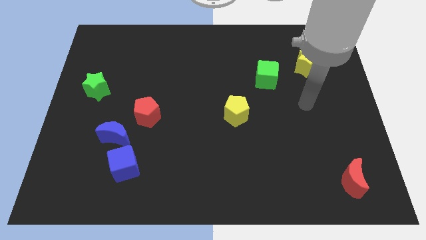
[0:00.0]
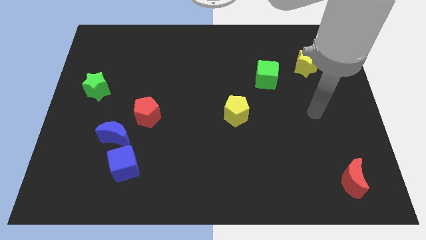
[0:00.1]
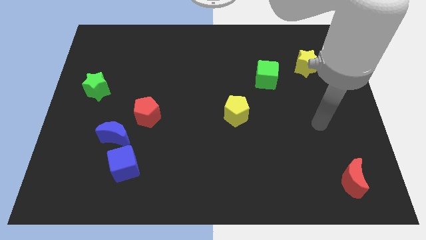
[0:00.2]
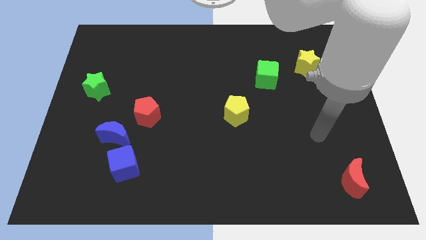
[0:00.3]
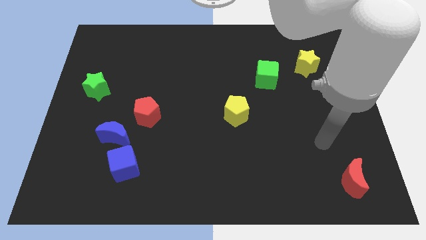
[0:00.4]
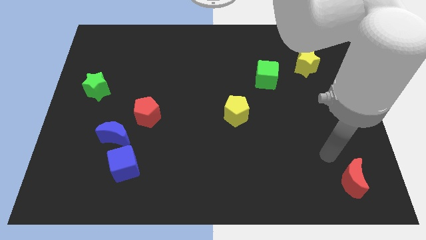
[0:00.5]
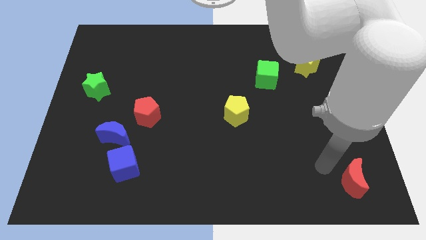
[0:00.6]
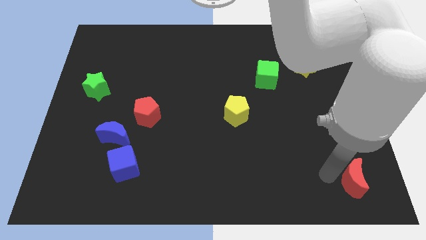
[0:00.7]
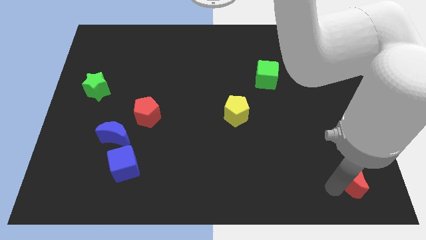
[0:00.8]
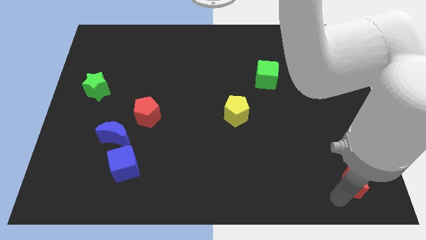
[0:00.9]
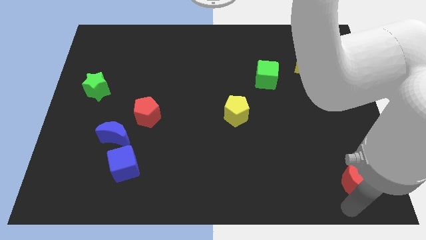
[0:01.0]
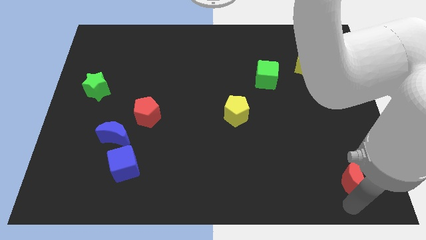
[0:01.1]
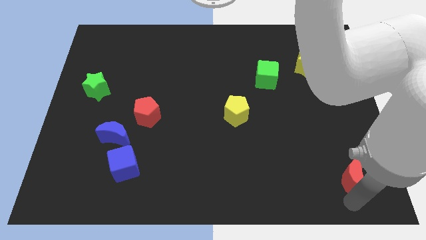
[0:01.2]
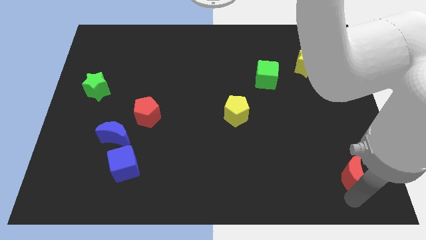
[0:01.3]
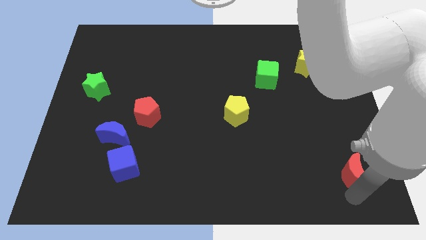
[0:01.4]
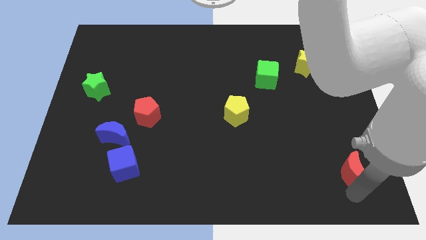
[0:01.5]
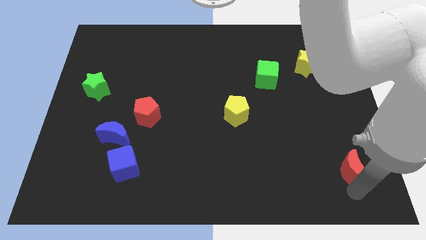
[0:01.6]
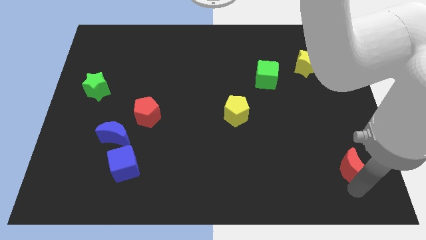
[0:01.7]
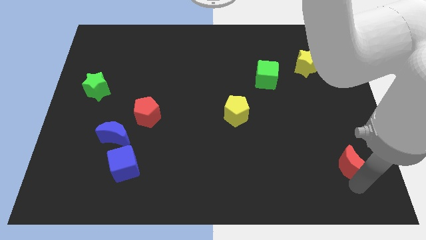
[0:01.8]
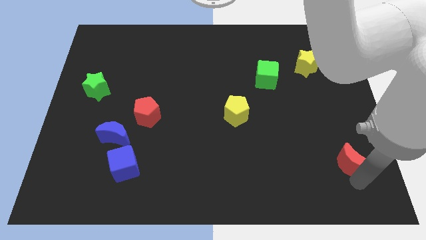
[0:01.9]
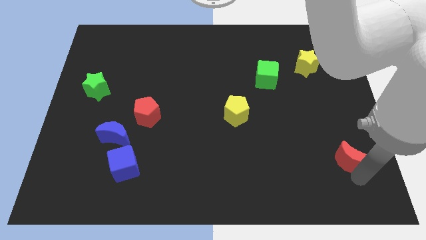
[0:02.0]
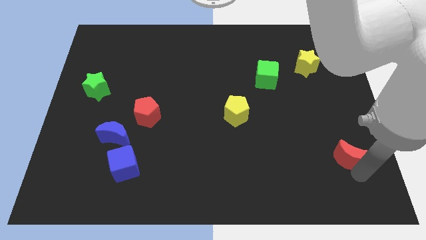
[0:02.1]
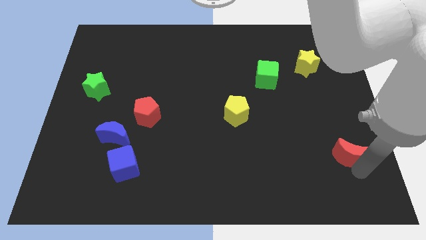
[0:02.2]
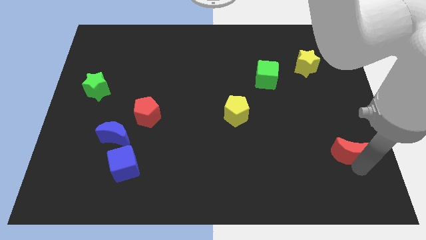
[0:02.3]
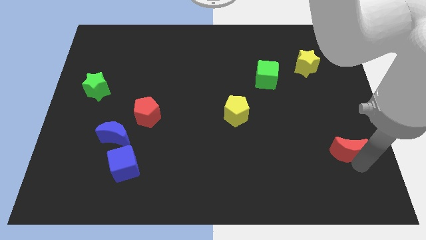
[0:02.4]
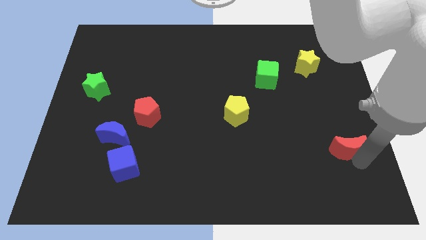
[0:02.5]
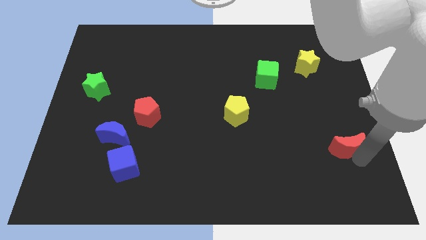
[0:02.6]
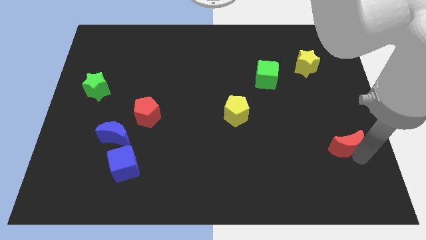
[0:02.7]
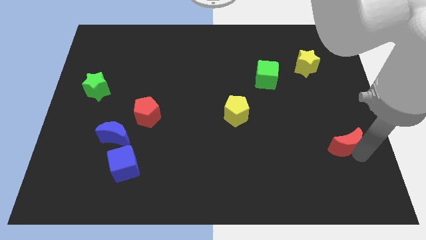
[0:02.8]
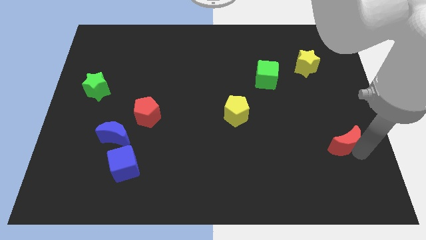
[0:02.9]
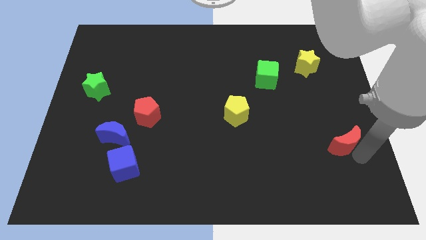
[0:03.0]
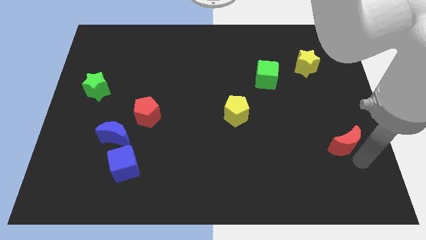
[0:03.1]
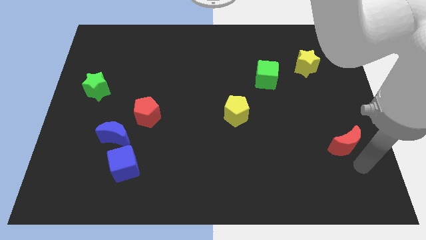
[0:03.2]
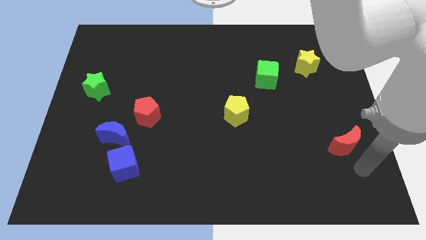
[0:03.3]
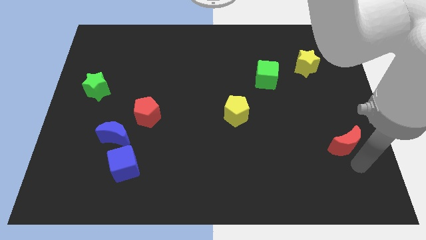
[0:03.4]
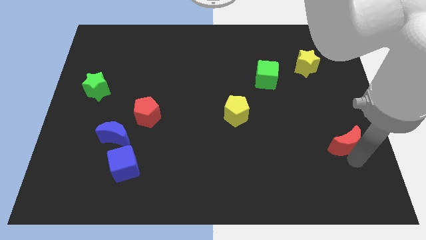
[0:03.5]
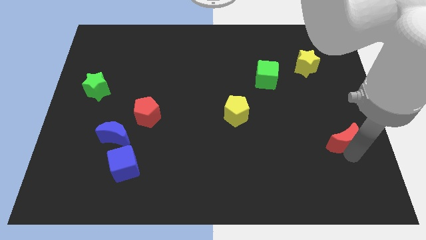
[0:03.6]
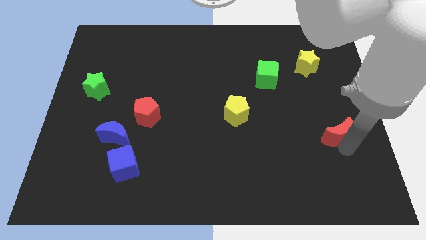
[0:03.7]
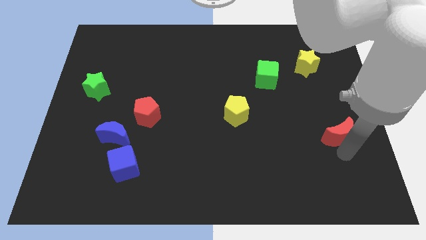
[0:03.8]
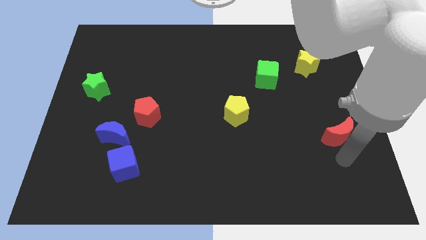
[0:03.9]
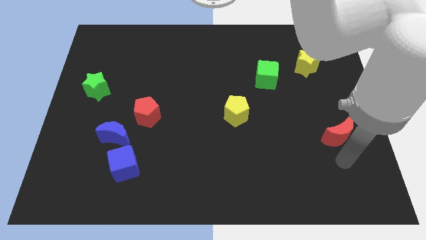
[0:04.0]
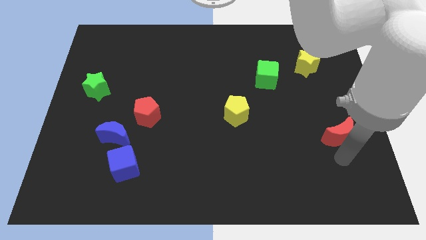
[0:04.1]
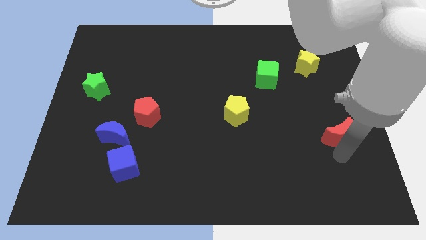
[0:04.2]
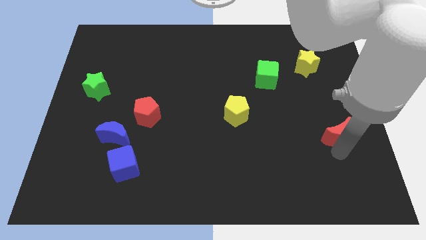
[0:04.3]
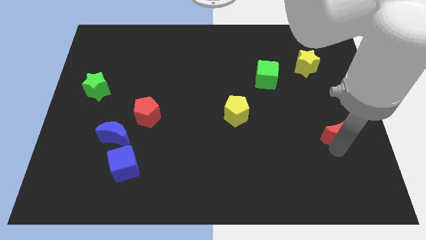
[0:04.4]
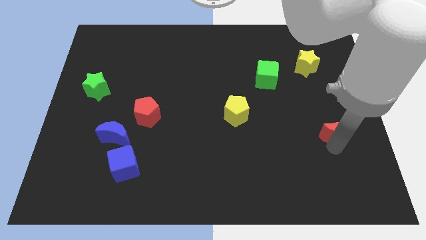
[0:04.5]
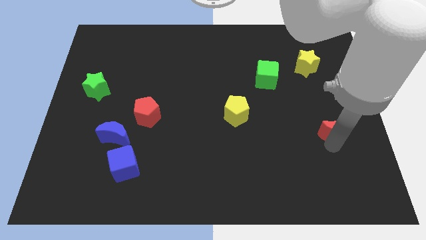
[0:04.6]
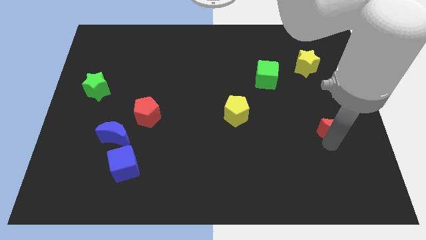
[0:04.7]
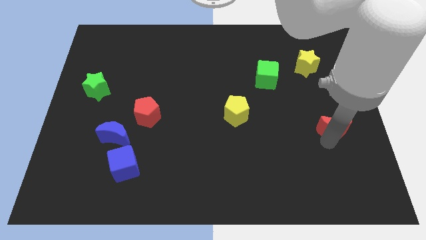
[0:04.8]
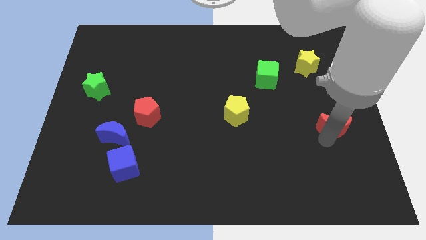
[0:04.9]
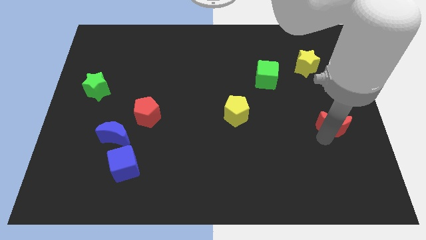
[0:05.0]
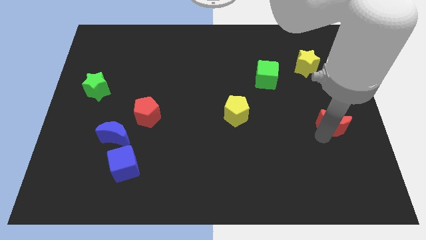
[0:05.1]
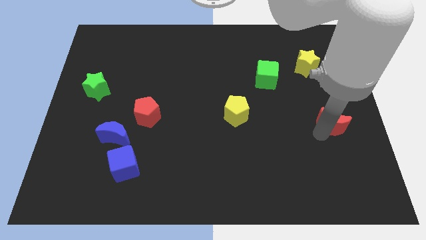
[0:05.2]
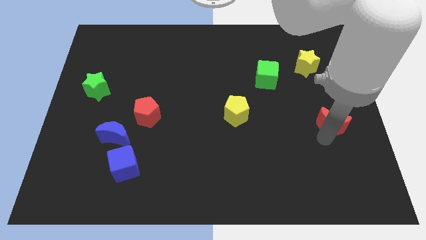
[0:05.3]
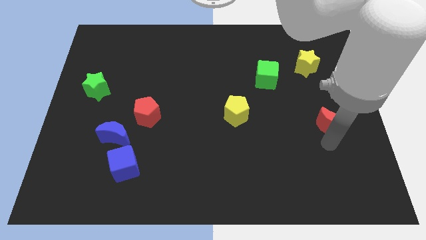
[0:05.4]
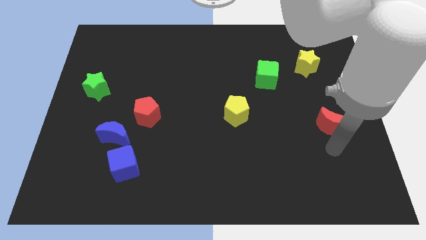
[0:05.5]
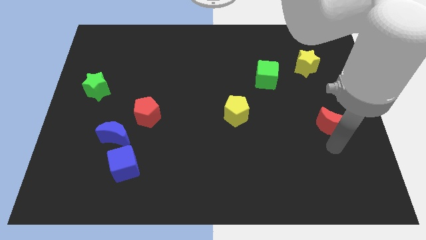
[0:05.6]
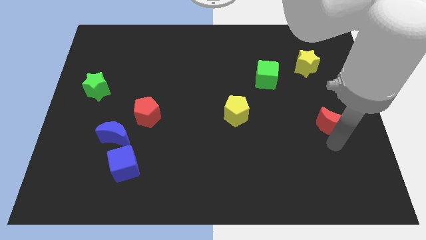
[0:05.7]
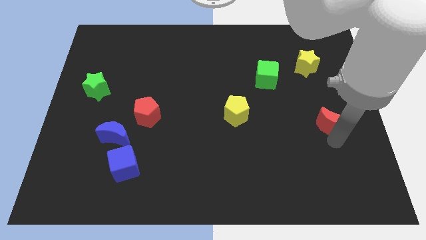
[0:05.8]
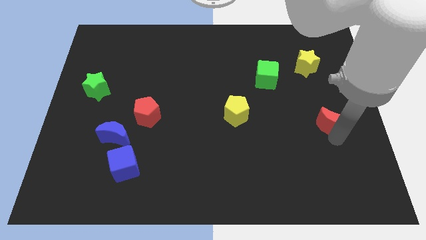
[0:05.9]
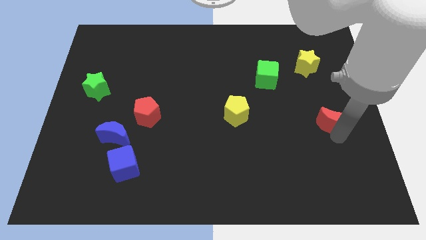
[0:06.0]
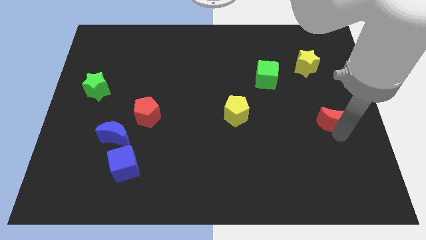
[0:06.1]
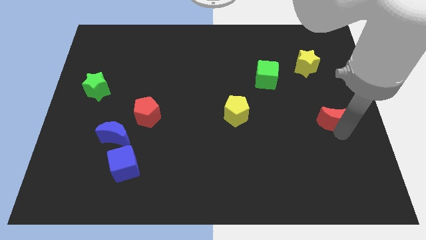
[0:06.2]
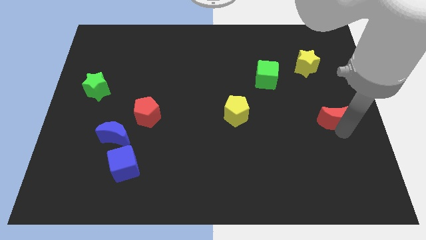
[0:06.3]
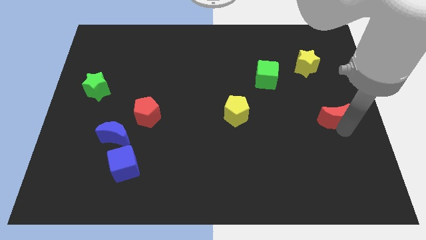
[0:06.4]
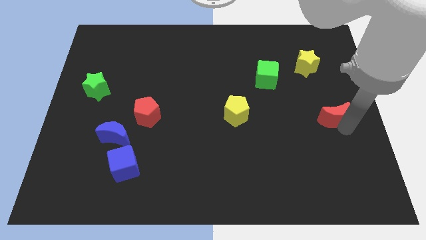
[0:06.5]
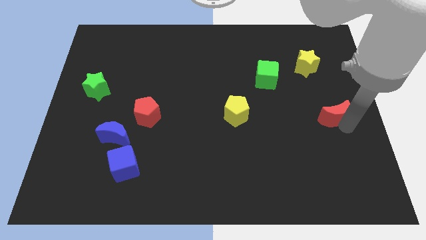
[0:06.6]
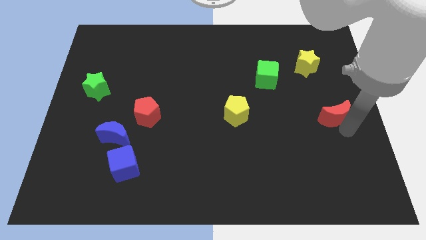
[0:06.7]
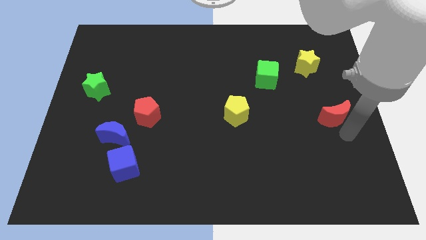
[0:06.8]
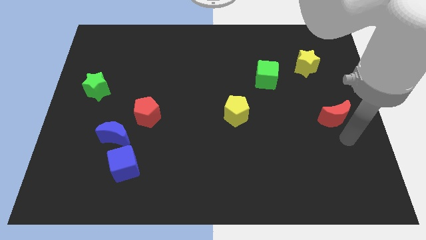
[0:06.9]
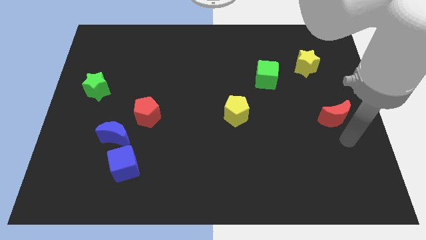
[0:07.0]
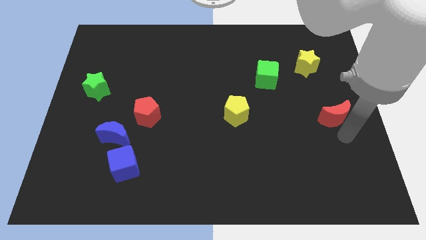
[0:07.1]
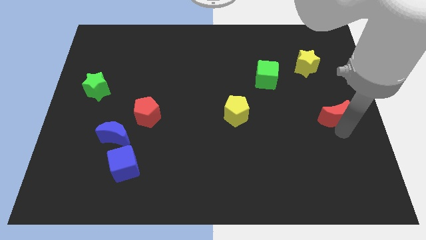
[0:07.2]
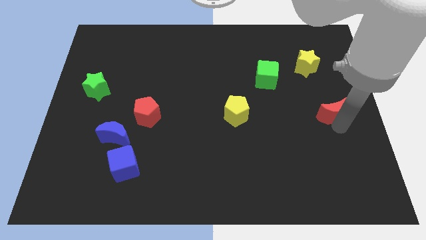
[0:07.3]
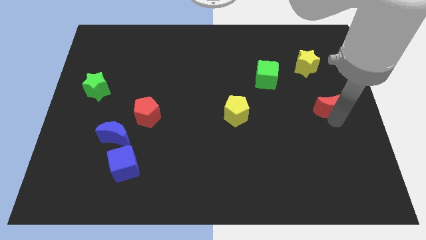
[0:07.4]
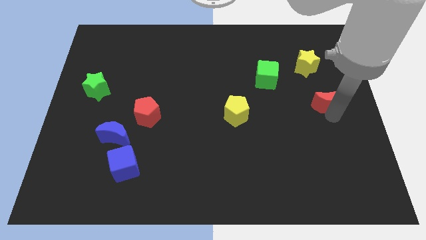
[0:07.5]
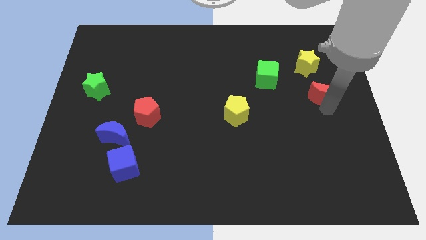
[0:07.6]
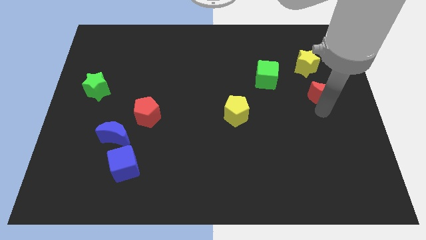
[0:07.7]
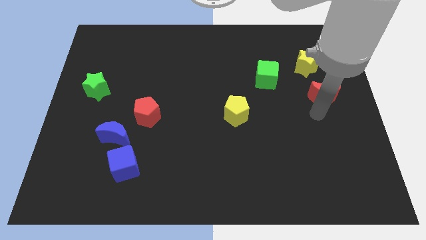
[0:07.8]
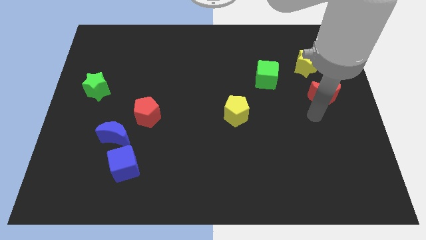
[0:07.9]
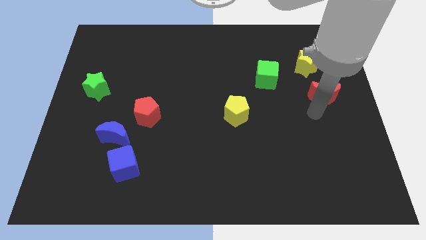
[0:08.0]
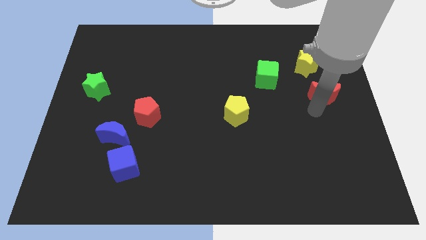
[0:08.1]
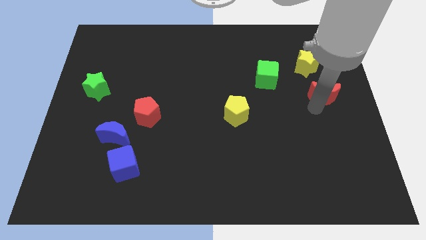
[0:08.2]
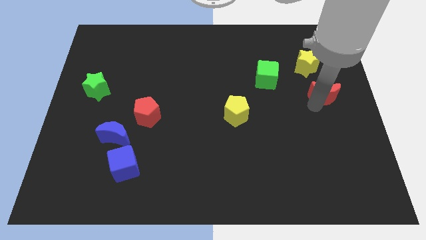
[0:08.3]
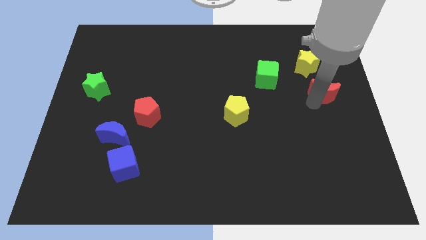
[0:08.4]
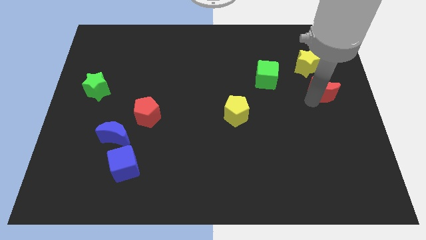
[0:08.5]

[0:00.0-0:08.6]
slide the red moon diagonally down and to the right of the yellow star
